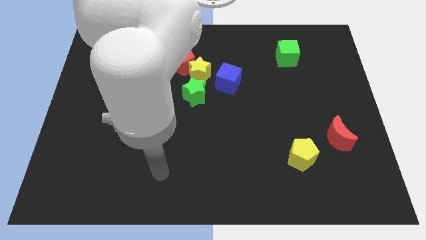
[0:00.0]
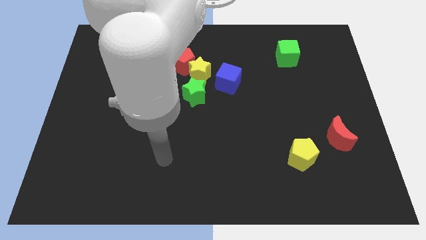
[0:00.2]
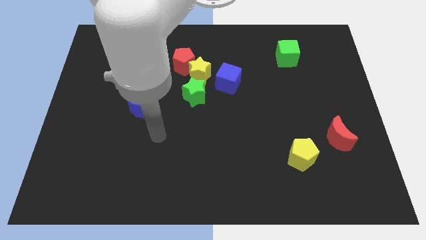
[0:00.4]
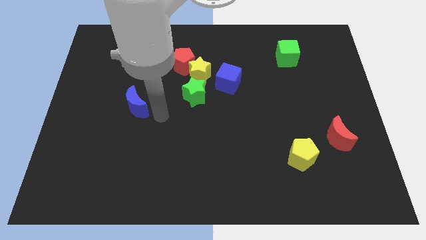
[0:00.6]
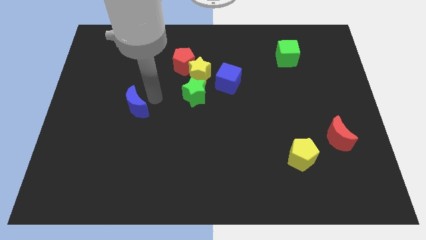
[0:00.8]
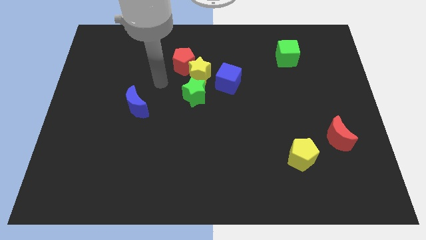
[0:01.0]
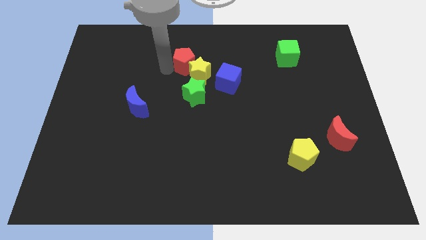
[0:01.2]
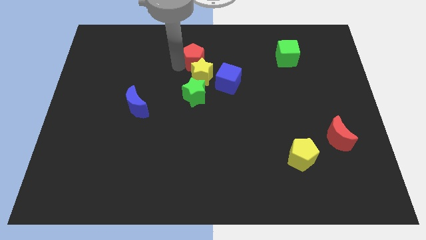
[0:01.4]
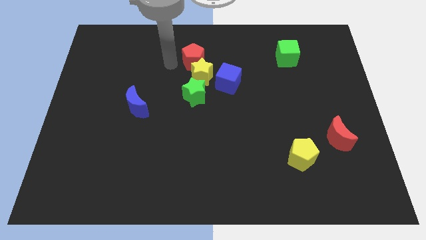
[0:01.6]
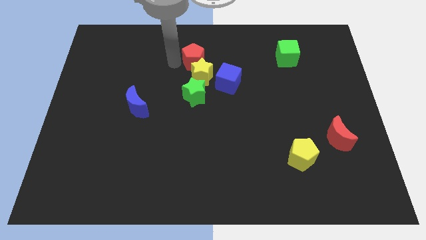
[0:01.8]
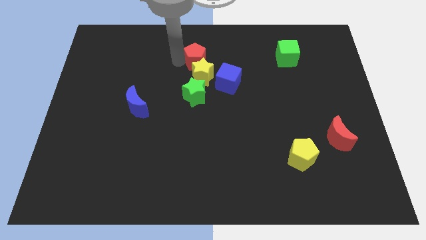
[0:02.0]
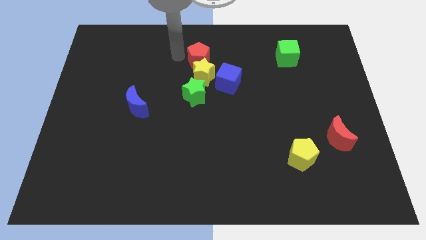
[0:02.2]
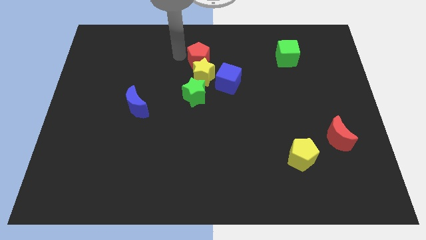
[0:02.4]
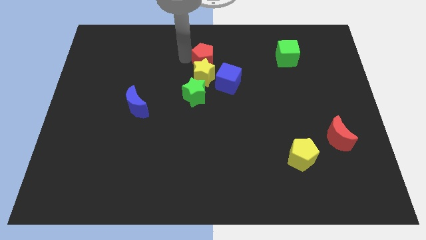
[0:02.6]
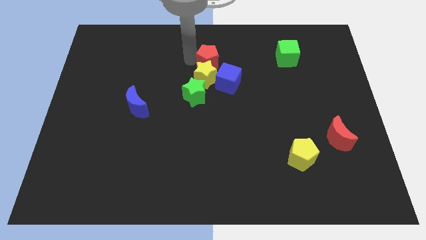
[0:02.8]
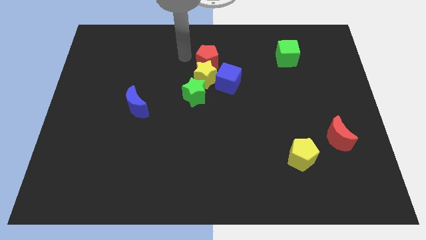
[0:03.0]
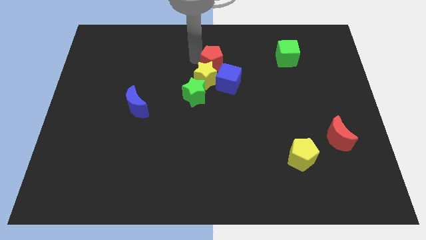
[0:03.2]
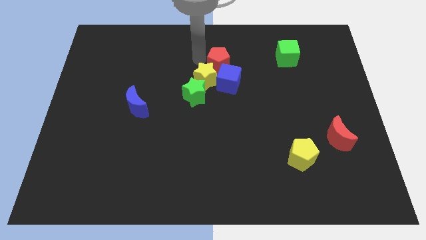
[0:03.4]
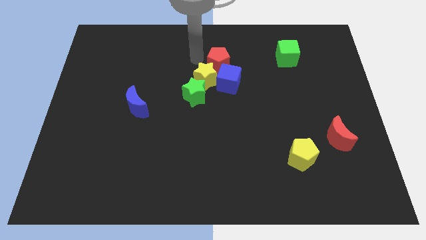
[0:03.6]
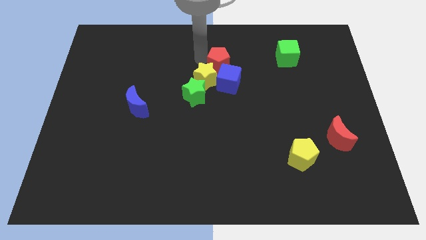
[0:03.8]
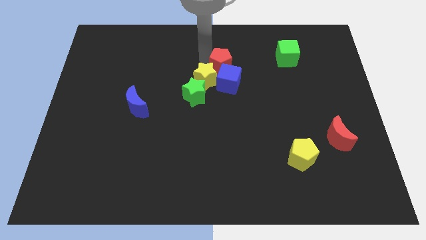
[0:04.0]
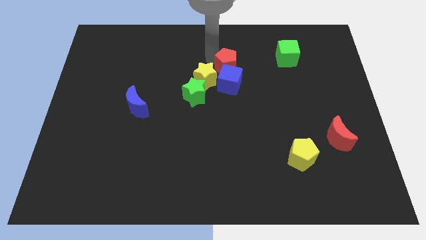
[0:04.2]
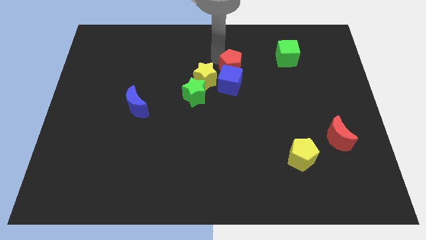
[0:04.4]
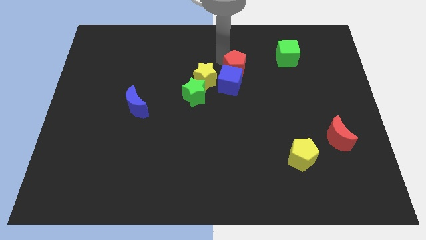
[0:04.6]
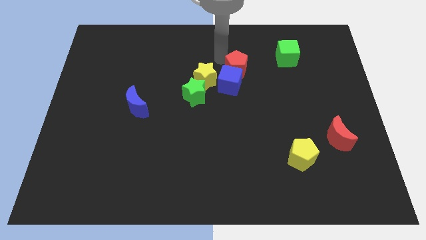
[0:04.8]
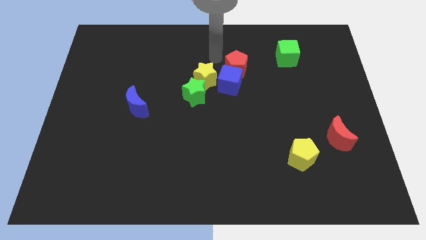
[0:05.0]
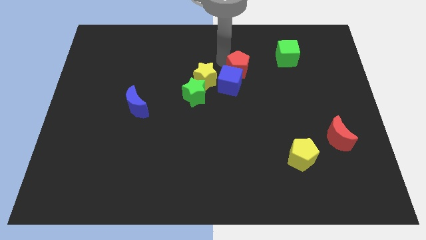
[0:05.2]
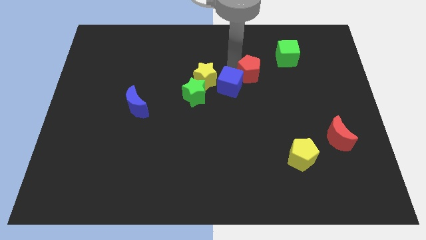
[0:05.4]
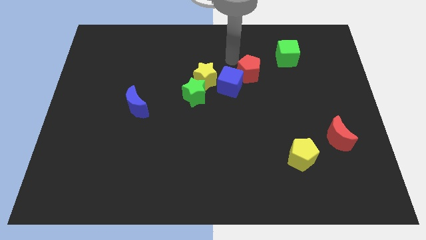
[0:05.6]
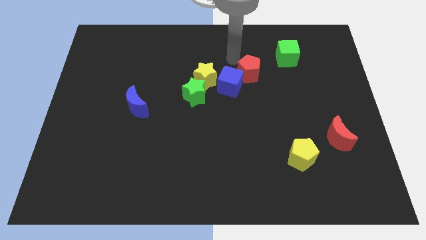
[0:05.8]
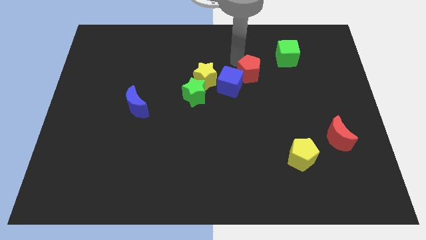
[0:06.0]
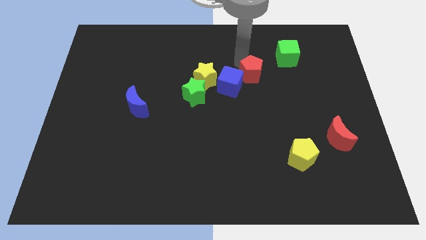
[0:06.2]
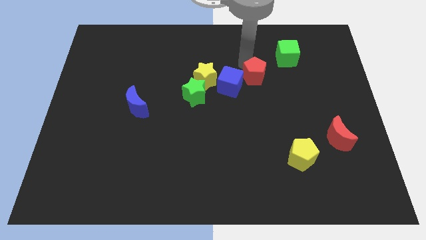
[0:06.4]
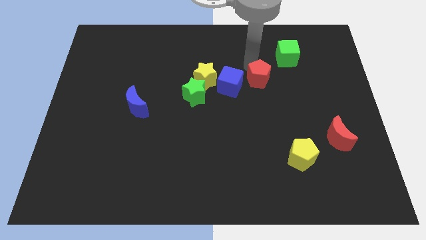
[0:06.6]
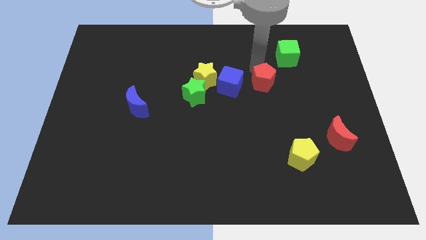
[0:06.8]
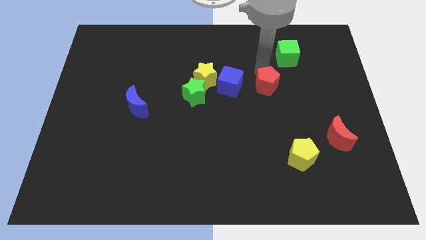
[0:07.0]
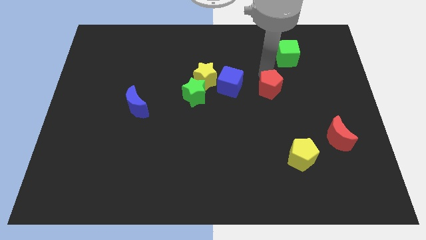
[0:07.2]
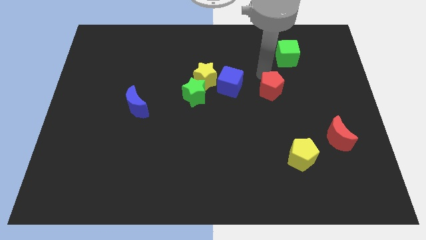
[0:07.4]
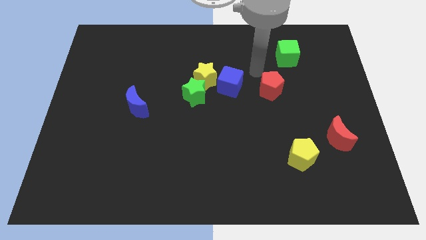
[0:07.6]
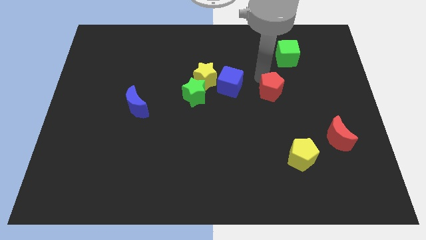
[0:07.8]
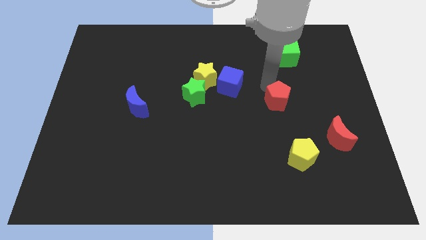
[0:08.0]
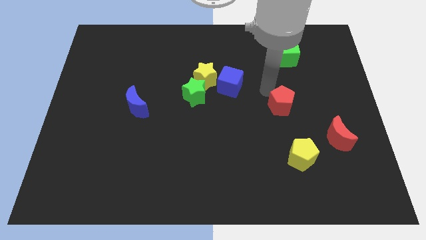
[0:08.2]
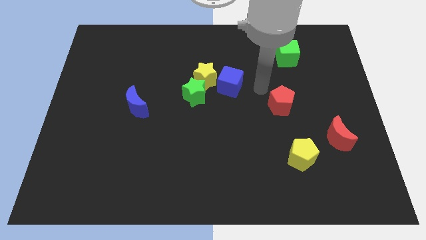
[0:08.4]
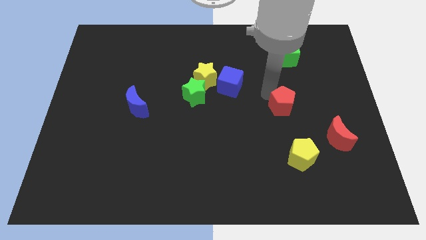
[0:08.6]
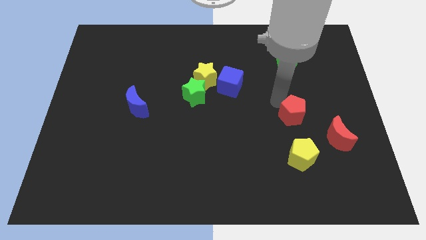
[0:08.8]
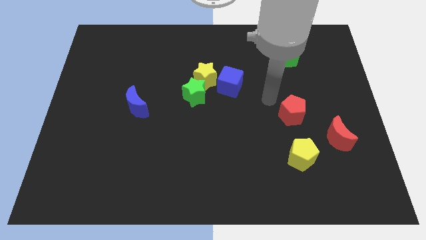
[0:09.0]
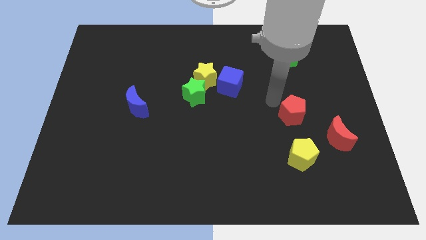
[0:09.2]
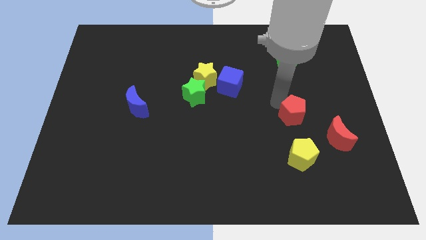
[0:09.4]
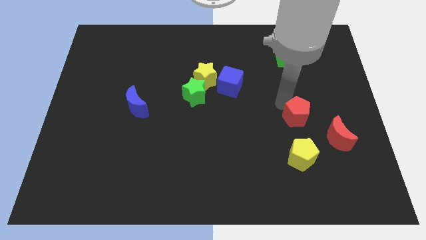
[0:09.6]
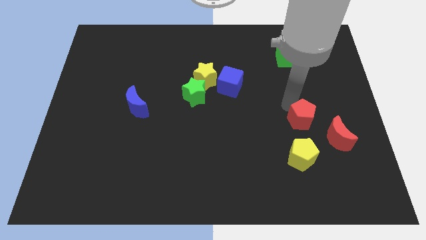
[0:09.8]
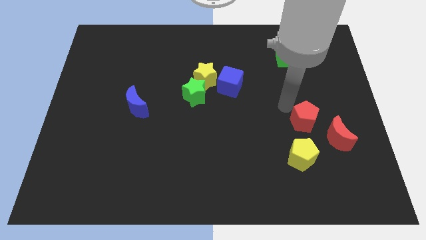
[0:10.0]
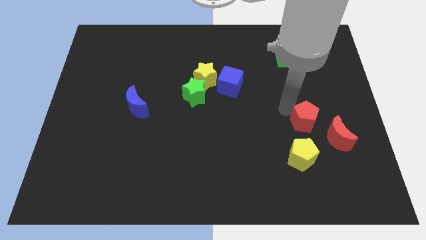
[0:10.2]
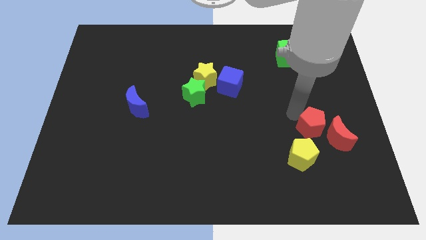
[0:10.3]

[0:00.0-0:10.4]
put the red pentagon close to the red moon
